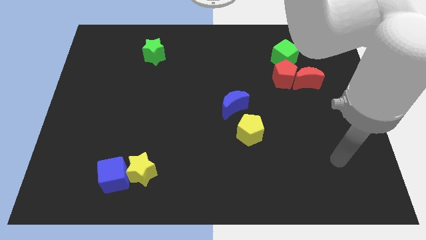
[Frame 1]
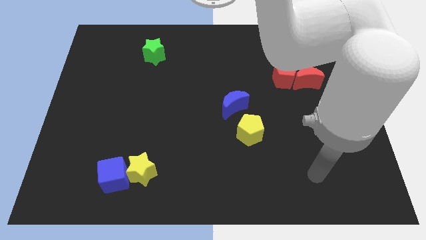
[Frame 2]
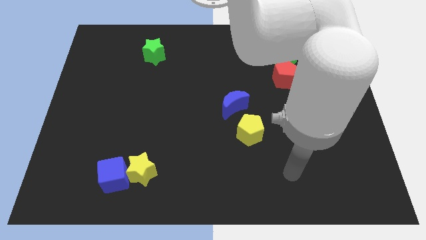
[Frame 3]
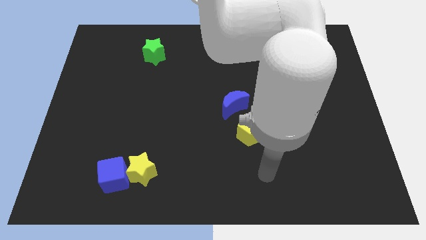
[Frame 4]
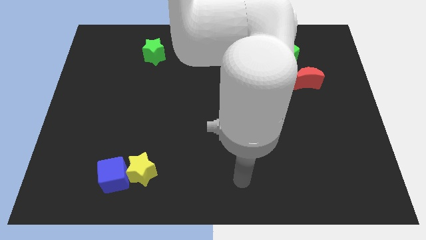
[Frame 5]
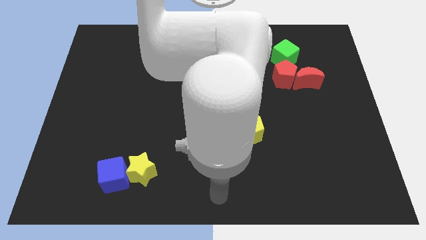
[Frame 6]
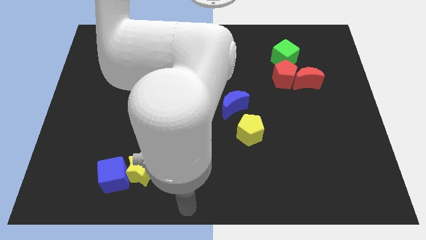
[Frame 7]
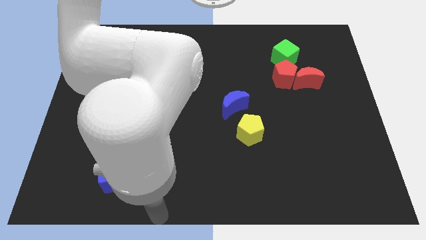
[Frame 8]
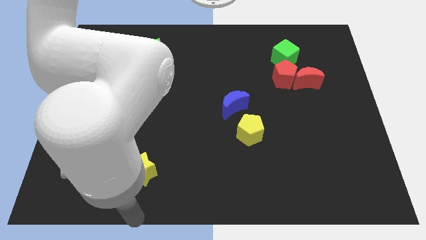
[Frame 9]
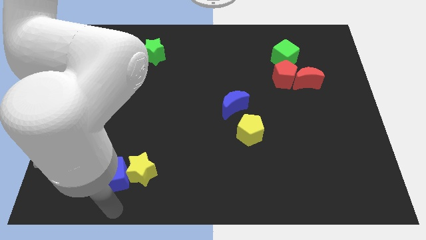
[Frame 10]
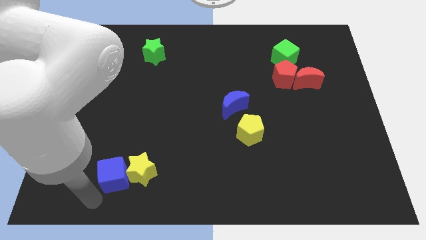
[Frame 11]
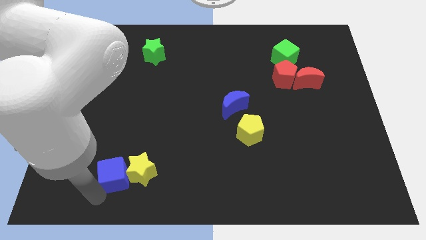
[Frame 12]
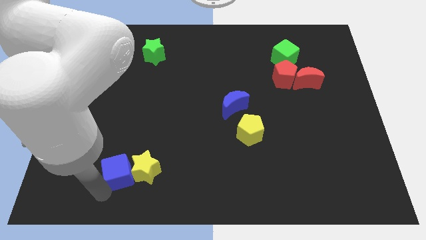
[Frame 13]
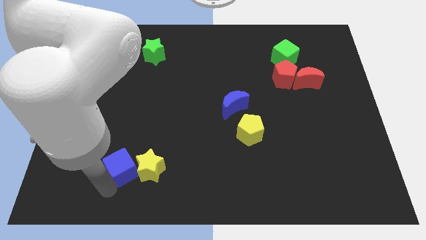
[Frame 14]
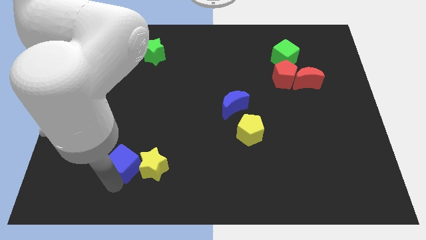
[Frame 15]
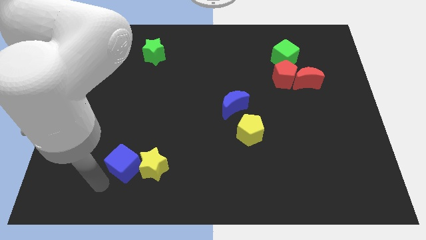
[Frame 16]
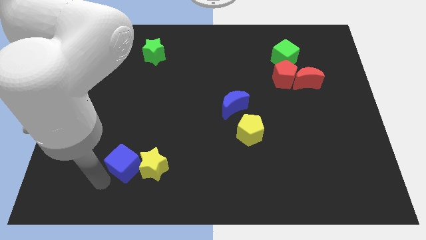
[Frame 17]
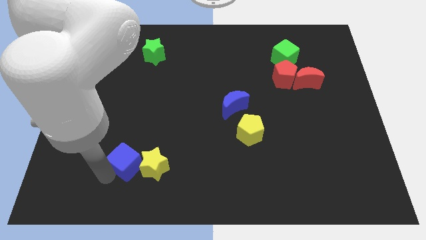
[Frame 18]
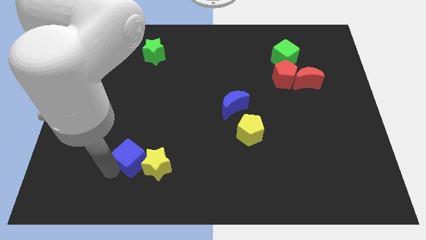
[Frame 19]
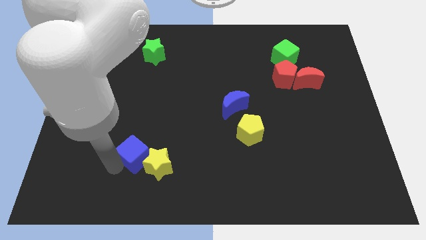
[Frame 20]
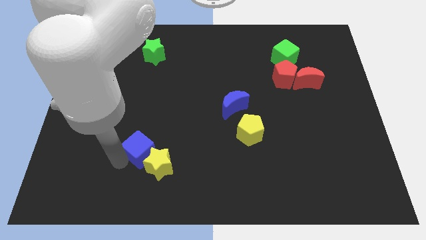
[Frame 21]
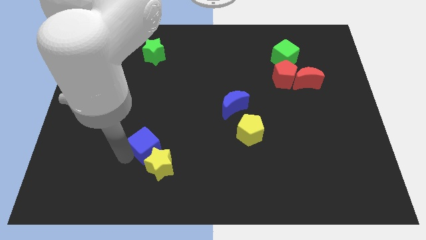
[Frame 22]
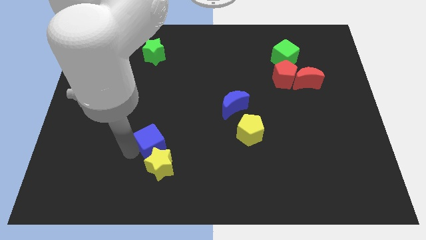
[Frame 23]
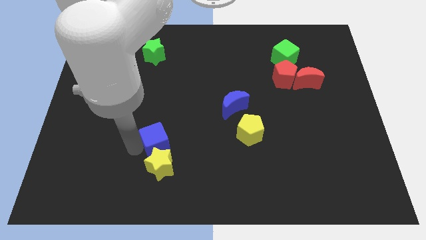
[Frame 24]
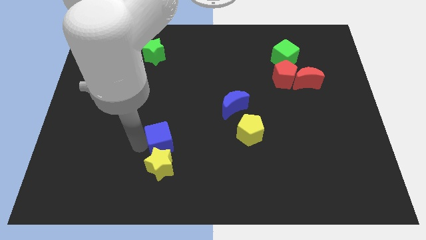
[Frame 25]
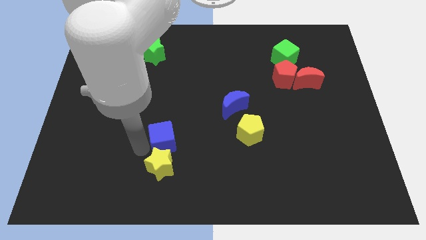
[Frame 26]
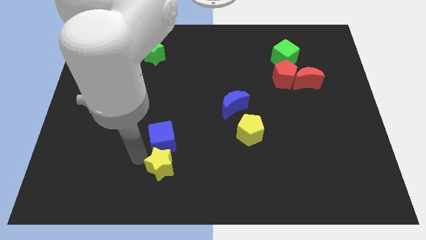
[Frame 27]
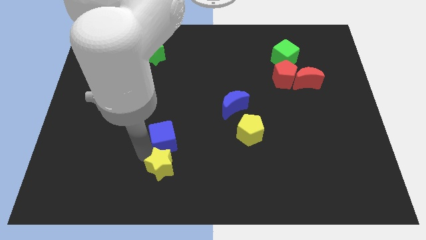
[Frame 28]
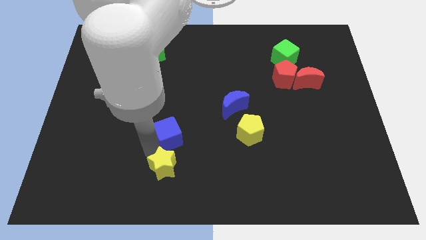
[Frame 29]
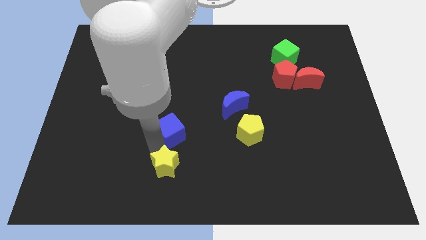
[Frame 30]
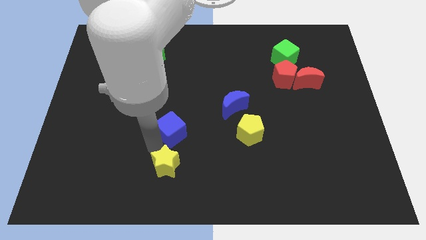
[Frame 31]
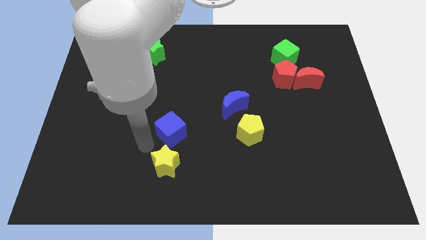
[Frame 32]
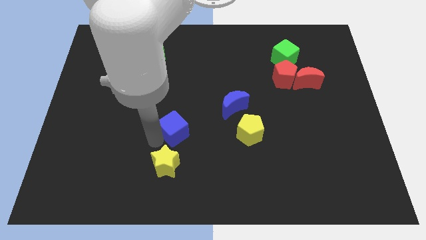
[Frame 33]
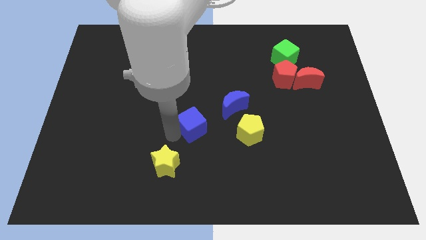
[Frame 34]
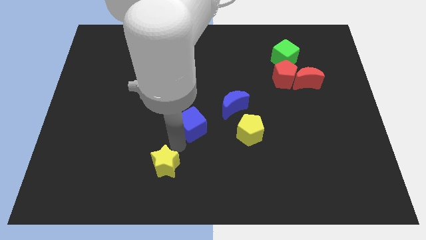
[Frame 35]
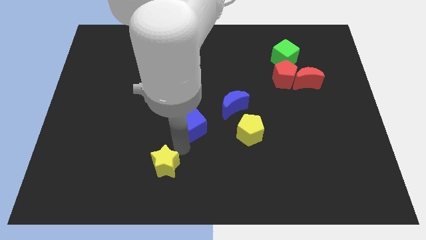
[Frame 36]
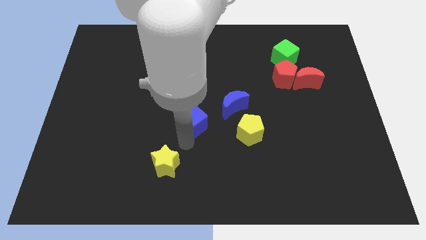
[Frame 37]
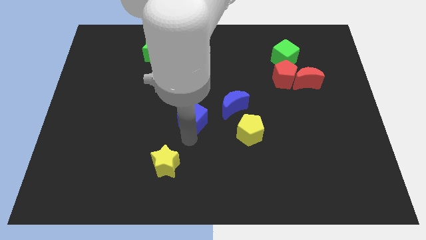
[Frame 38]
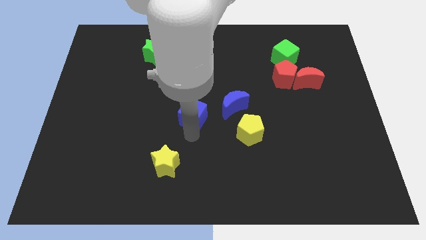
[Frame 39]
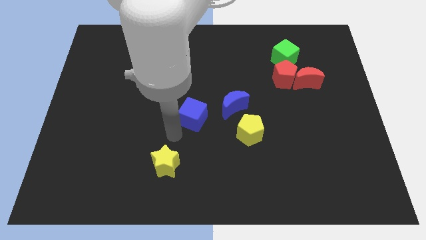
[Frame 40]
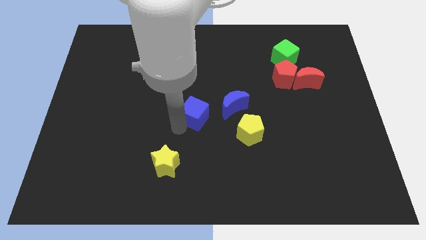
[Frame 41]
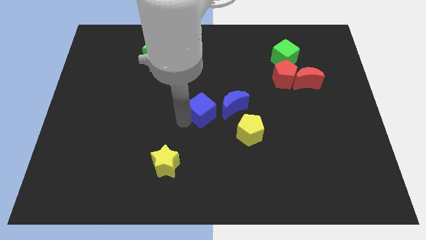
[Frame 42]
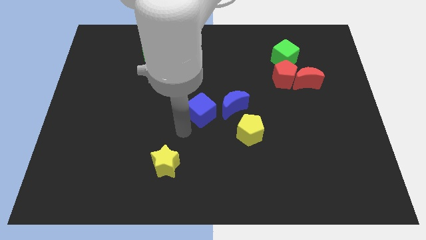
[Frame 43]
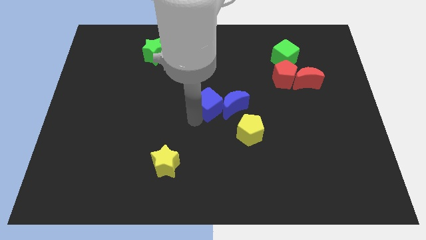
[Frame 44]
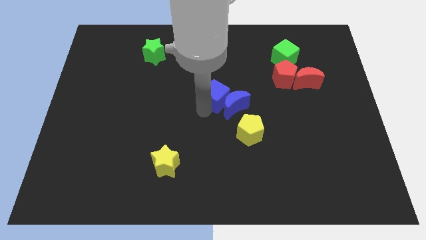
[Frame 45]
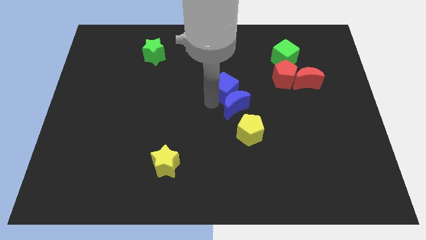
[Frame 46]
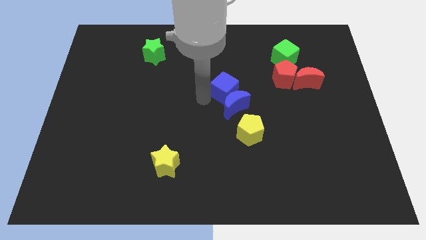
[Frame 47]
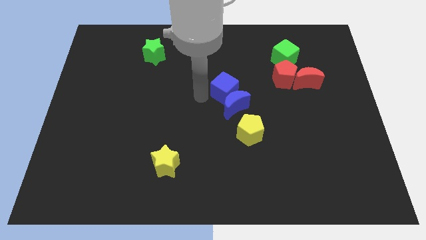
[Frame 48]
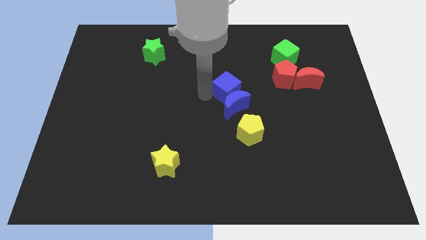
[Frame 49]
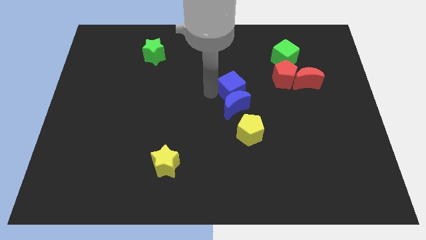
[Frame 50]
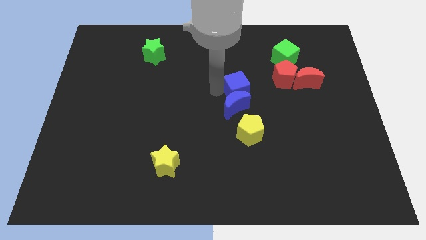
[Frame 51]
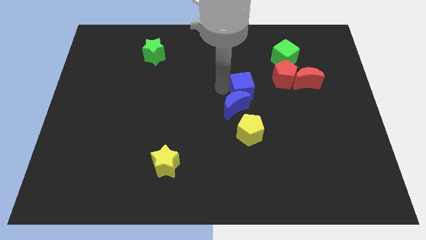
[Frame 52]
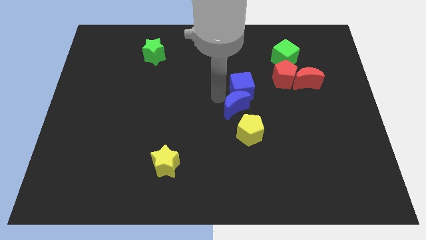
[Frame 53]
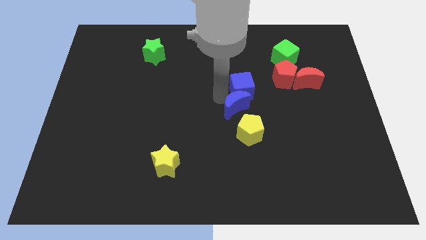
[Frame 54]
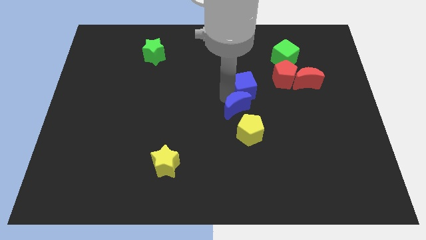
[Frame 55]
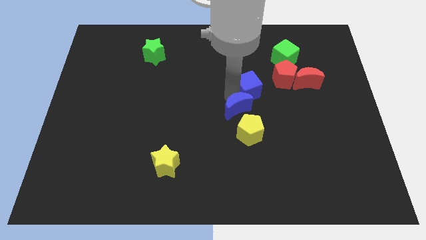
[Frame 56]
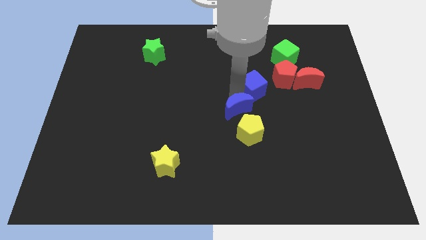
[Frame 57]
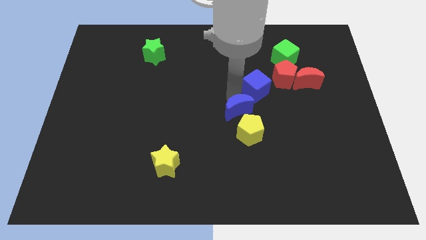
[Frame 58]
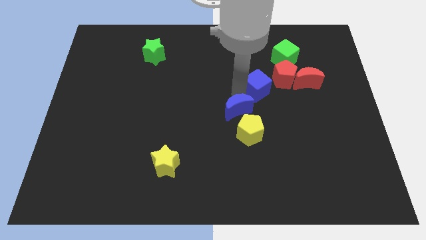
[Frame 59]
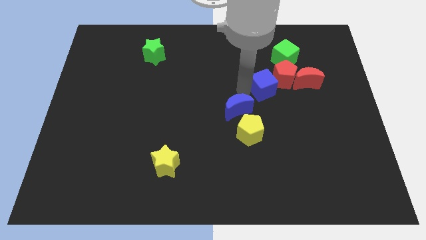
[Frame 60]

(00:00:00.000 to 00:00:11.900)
slide the blue cube close to the red pentagon

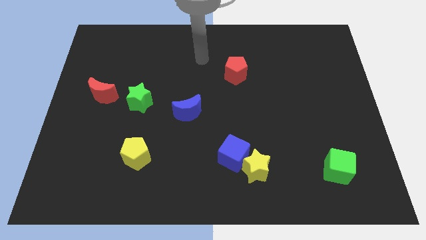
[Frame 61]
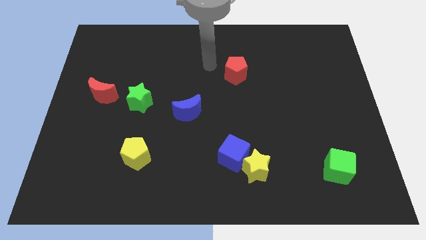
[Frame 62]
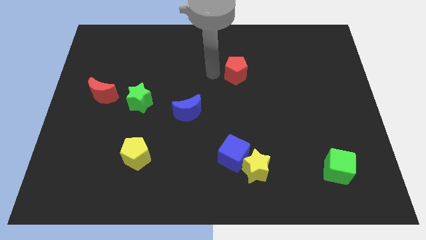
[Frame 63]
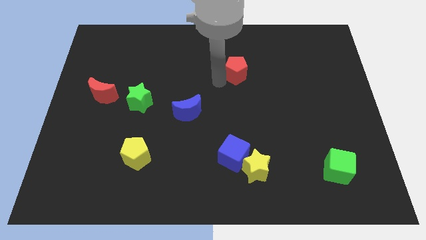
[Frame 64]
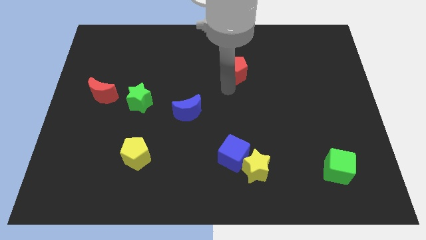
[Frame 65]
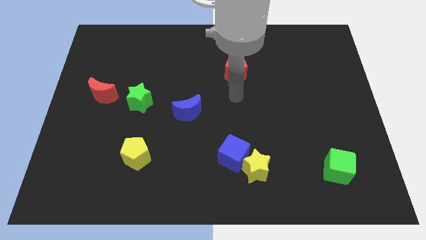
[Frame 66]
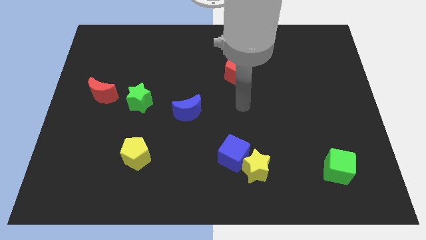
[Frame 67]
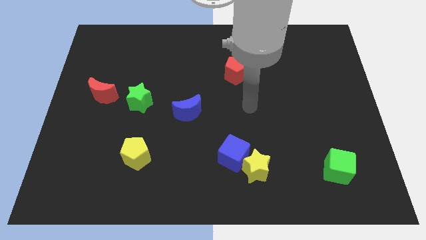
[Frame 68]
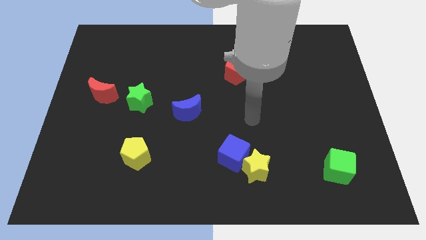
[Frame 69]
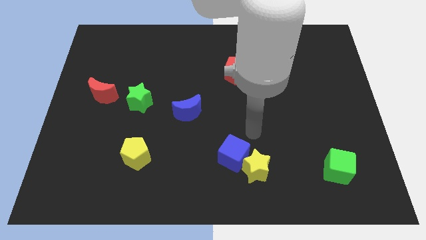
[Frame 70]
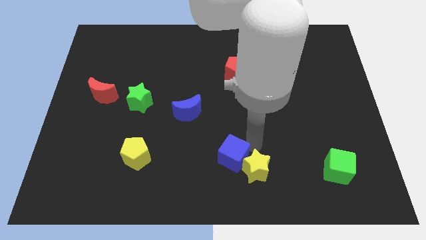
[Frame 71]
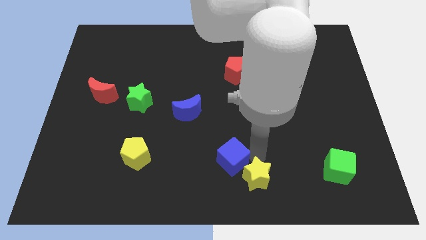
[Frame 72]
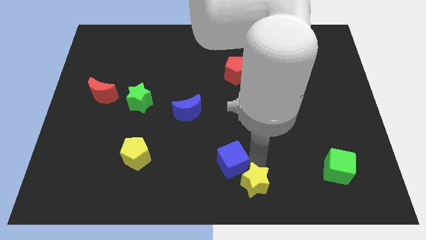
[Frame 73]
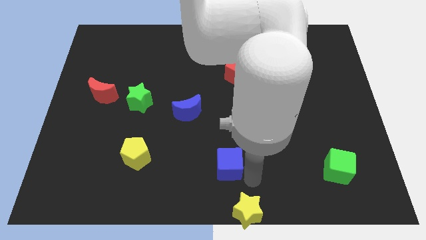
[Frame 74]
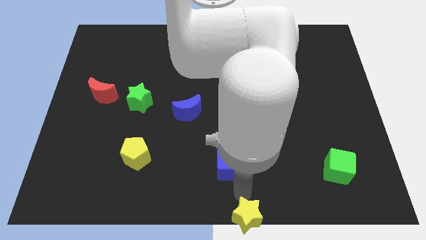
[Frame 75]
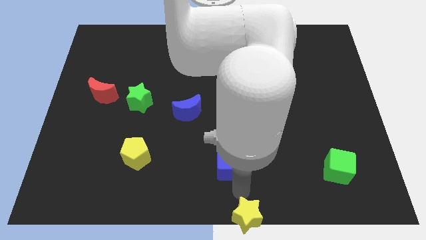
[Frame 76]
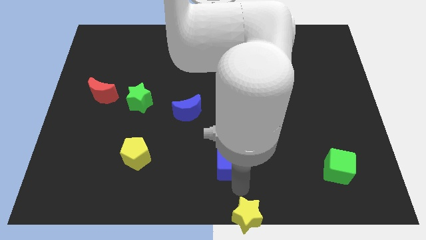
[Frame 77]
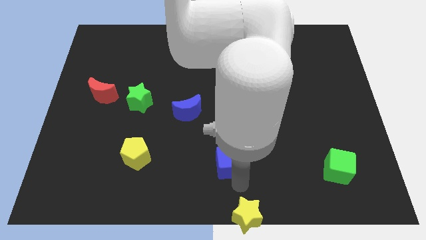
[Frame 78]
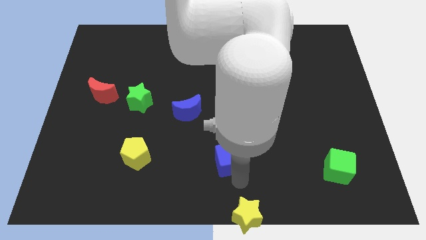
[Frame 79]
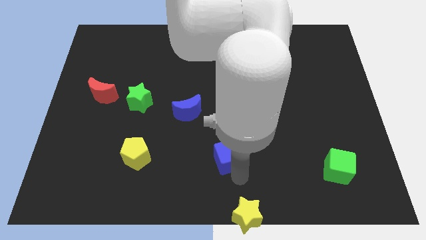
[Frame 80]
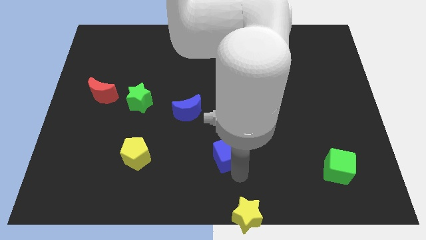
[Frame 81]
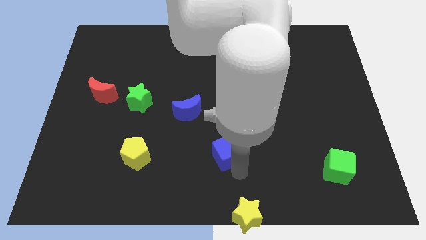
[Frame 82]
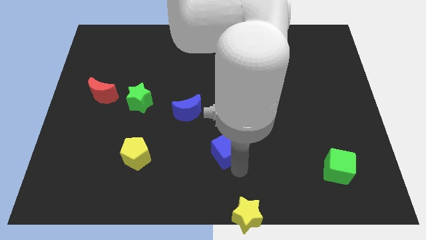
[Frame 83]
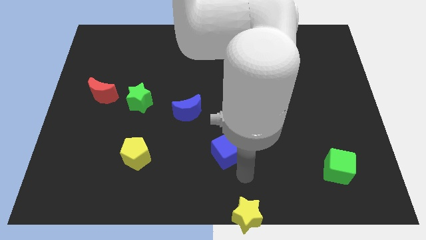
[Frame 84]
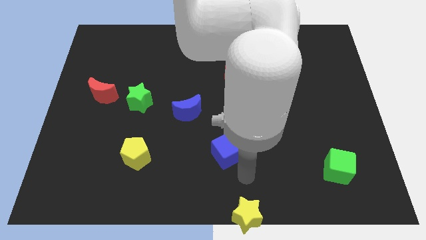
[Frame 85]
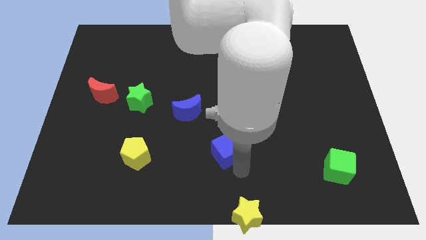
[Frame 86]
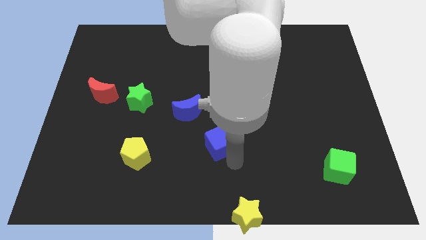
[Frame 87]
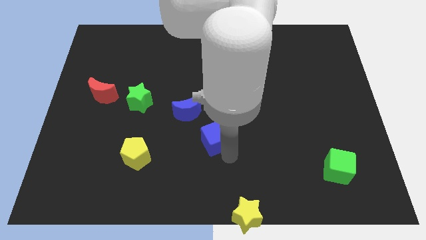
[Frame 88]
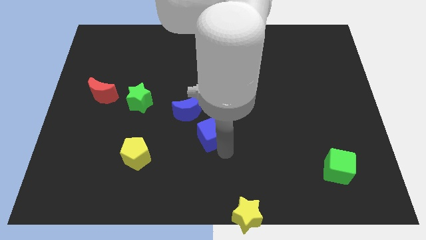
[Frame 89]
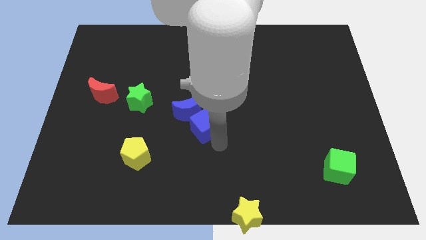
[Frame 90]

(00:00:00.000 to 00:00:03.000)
put the blue cube towards the blue moon
